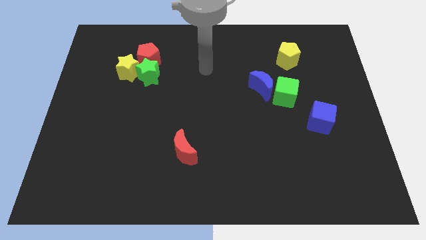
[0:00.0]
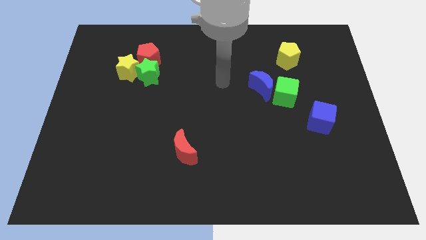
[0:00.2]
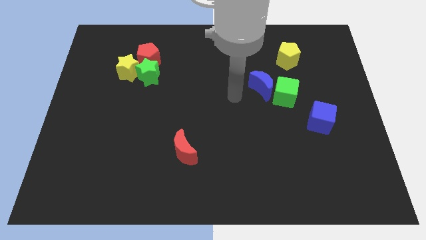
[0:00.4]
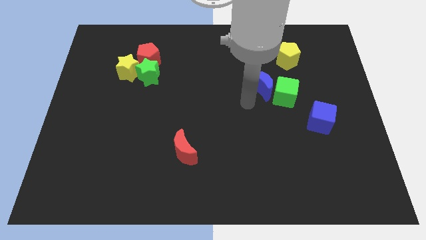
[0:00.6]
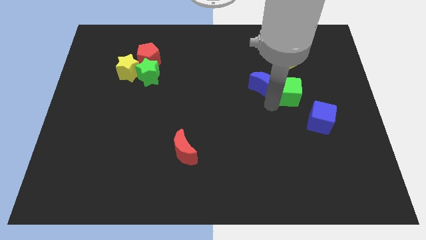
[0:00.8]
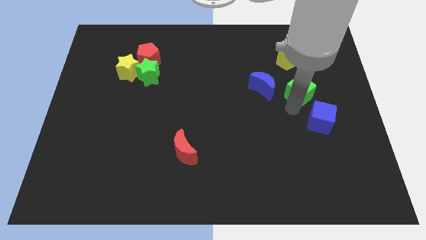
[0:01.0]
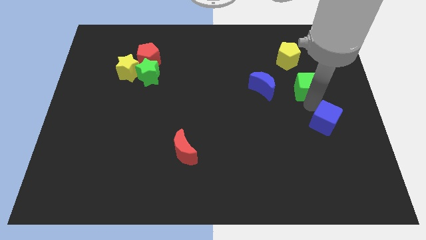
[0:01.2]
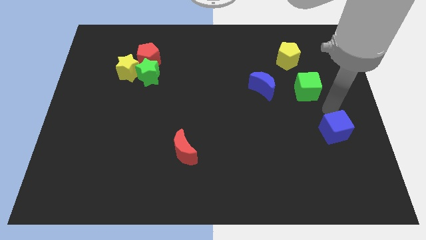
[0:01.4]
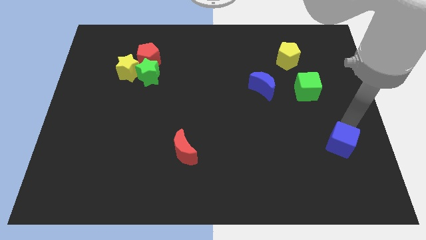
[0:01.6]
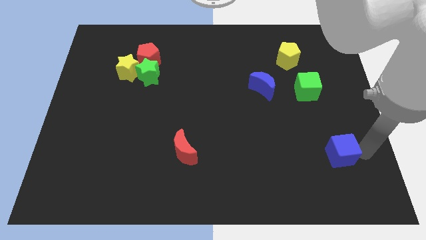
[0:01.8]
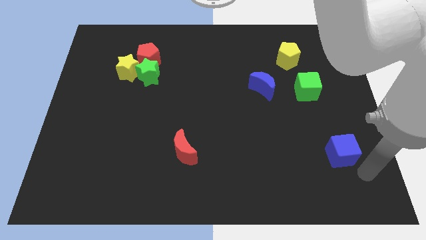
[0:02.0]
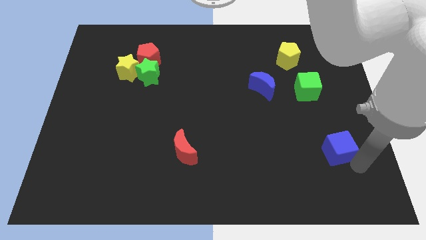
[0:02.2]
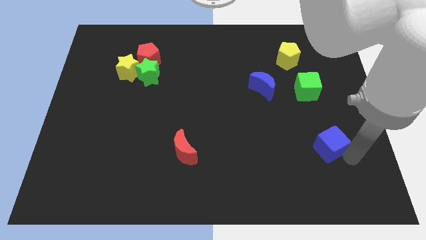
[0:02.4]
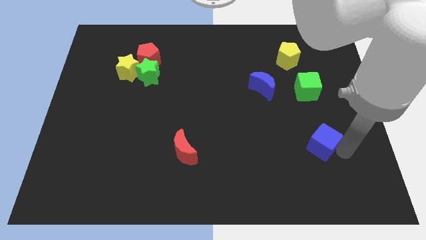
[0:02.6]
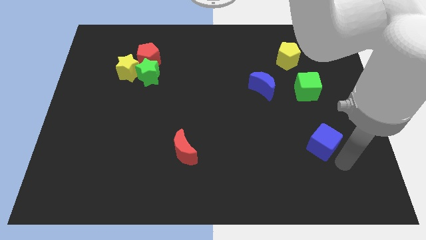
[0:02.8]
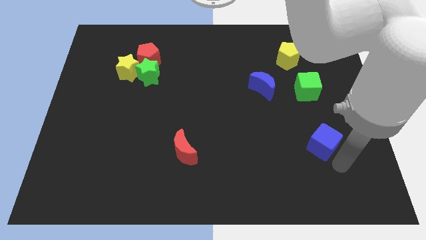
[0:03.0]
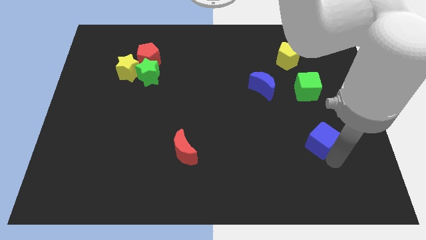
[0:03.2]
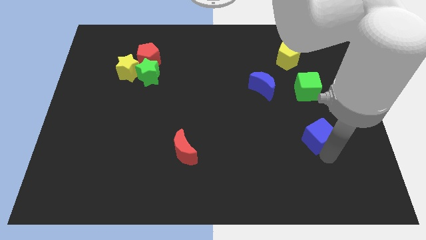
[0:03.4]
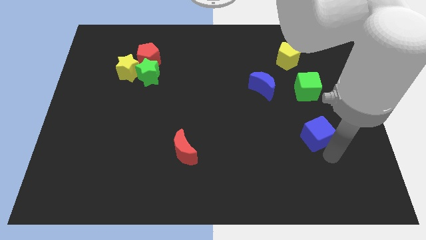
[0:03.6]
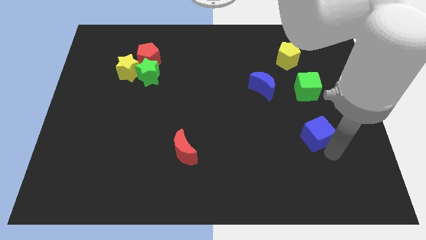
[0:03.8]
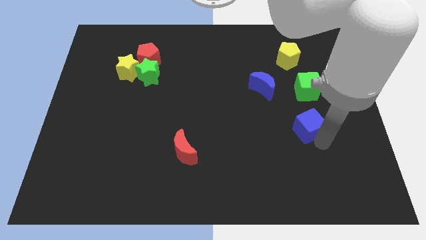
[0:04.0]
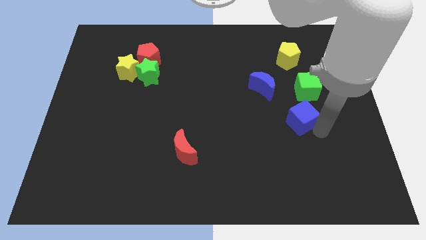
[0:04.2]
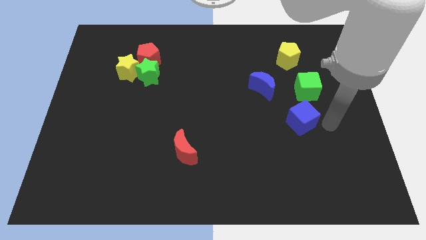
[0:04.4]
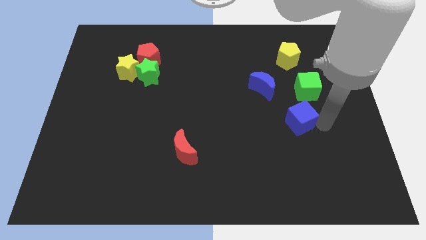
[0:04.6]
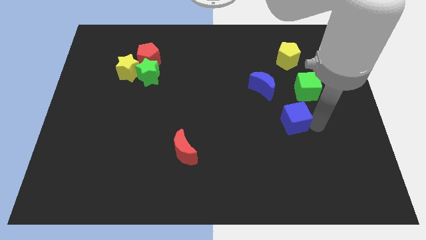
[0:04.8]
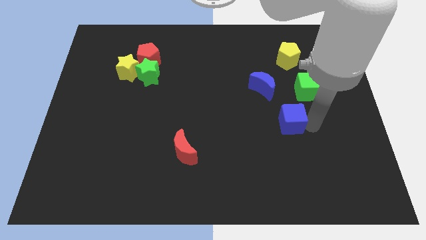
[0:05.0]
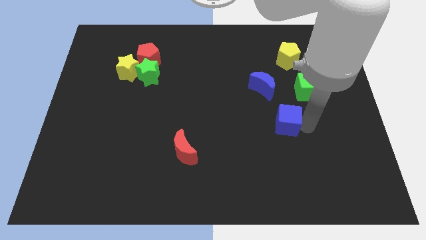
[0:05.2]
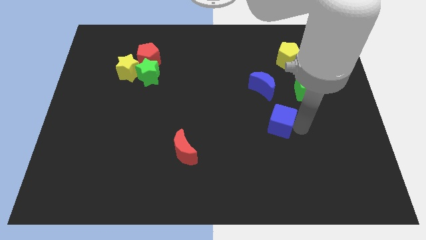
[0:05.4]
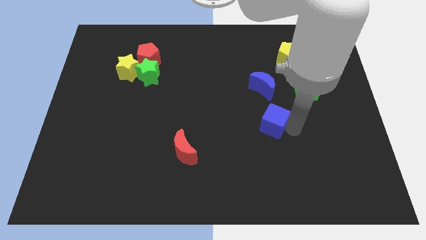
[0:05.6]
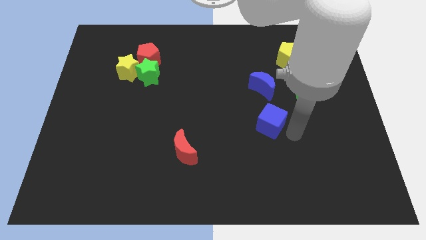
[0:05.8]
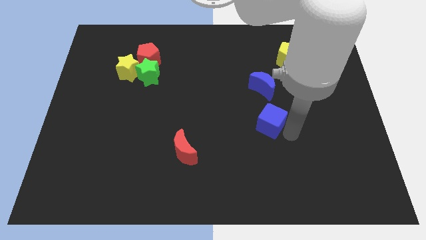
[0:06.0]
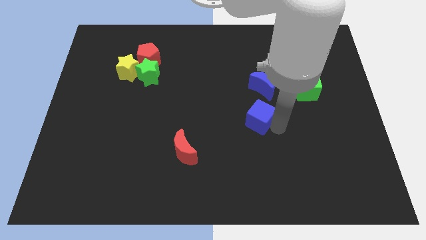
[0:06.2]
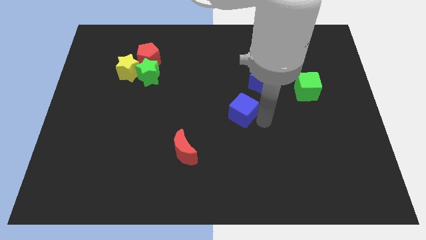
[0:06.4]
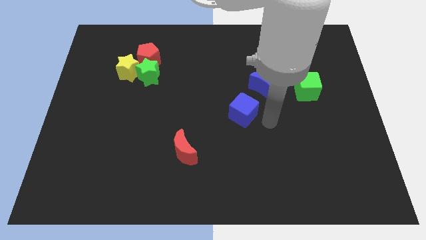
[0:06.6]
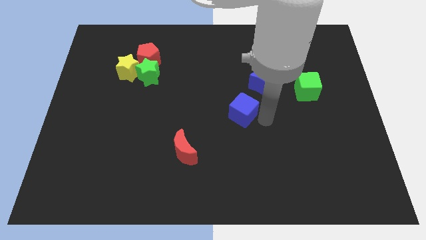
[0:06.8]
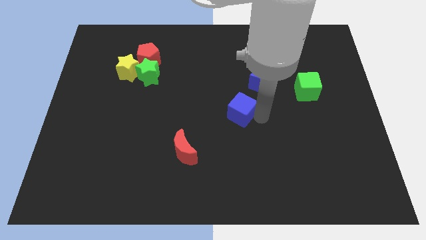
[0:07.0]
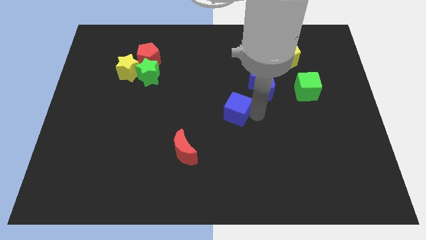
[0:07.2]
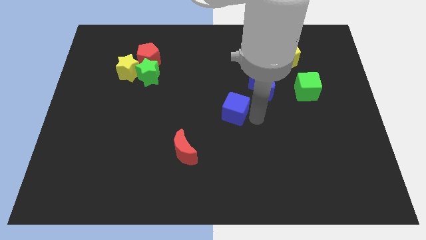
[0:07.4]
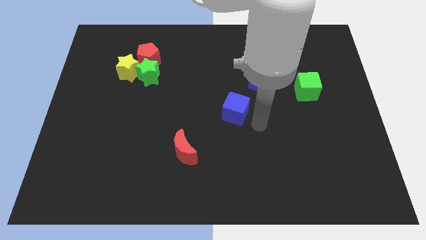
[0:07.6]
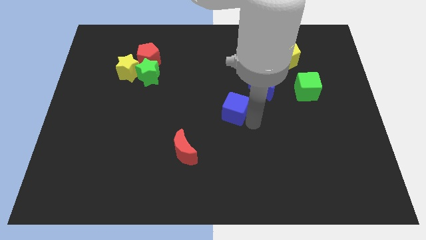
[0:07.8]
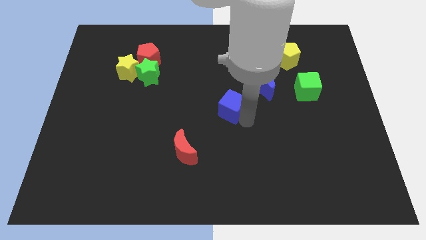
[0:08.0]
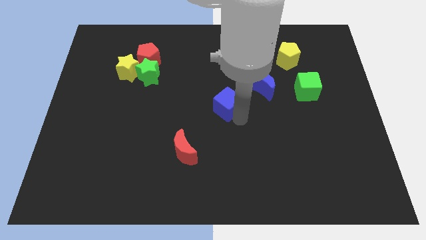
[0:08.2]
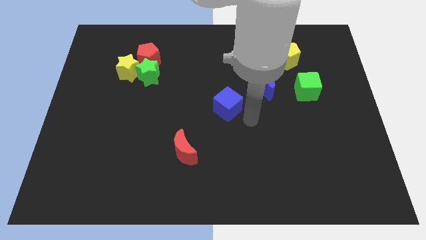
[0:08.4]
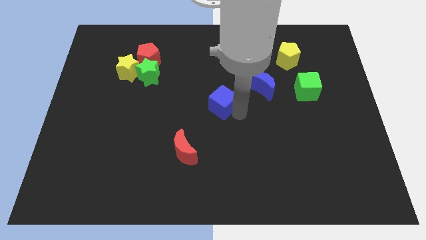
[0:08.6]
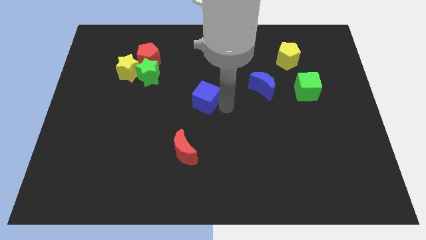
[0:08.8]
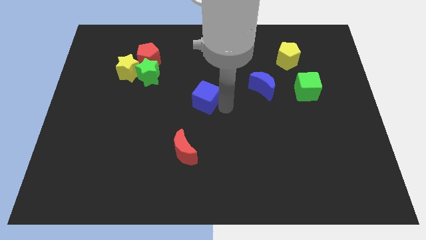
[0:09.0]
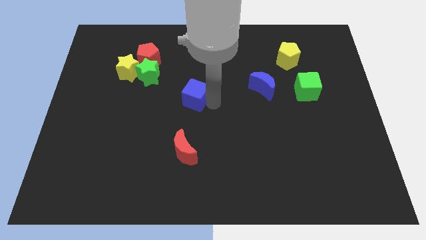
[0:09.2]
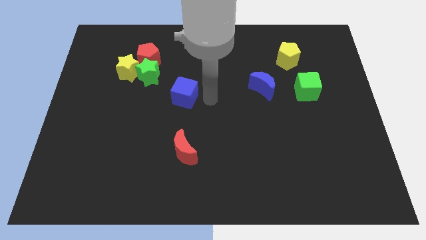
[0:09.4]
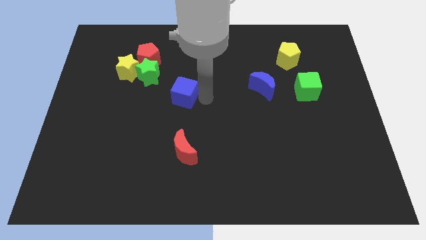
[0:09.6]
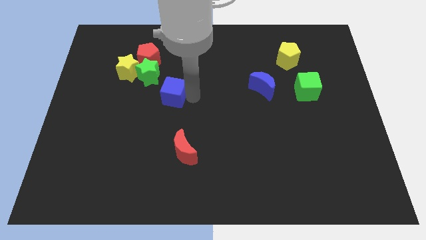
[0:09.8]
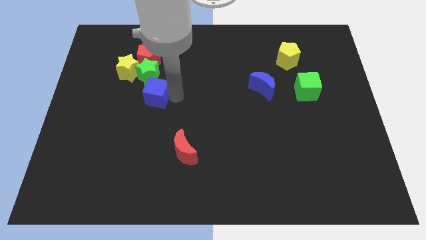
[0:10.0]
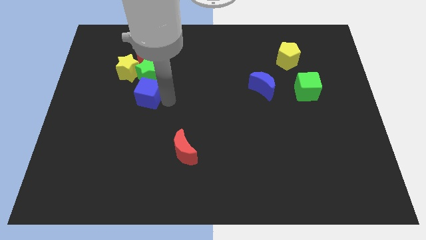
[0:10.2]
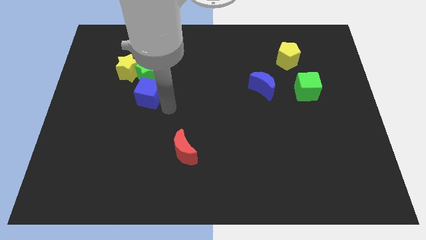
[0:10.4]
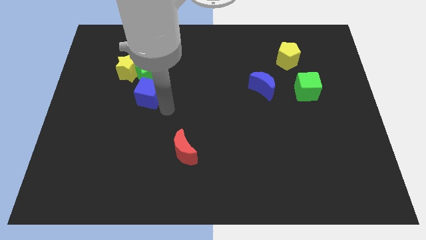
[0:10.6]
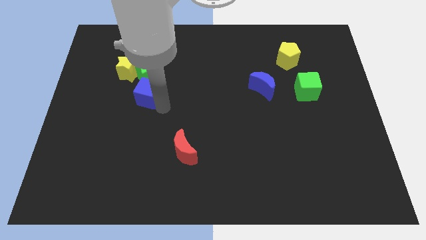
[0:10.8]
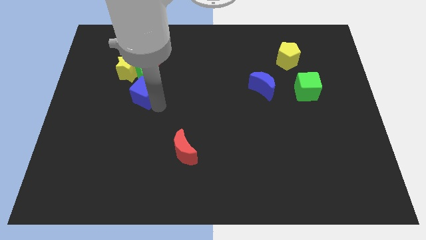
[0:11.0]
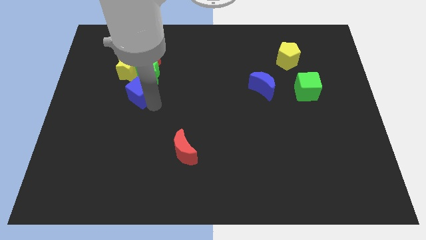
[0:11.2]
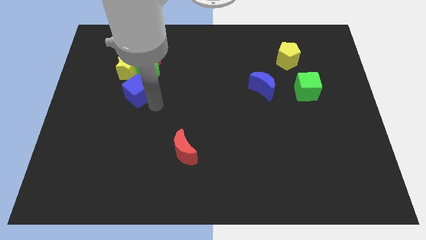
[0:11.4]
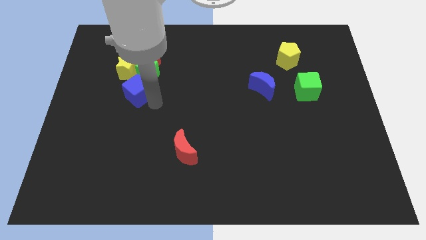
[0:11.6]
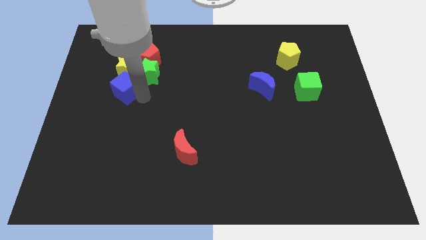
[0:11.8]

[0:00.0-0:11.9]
slide the blue cube close to the yellow star

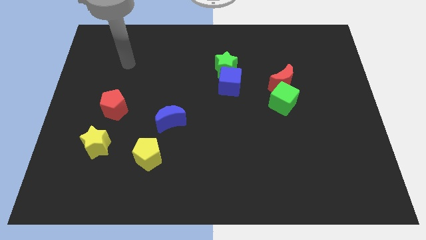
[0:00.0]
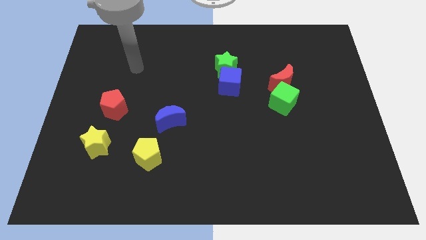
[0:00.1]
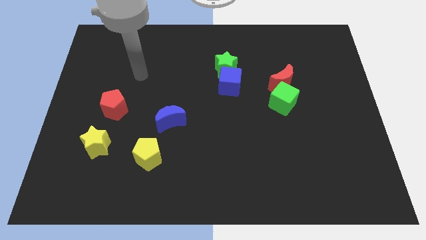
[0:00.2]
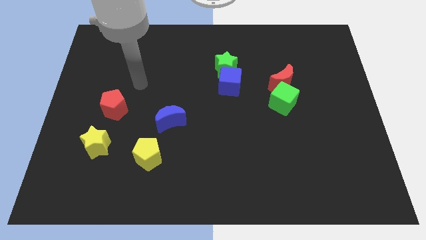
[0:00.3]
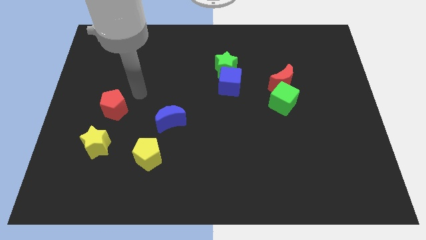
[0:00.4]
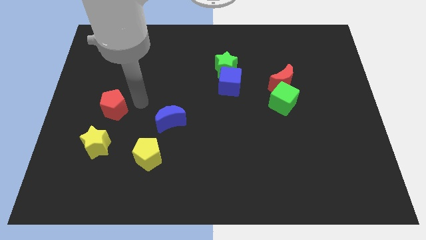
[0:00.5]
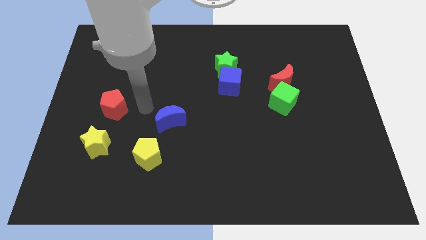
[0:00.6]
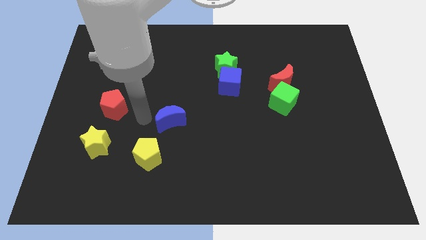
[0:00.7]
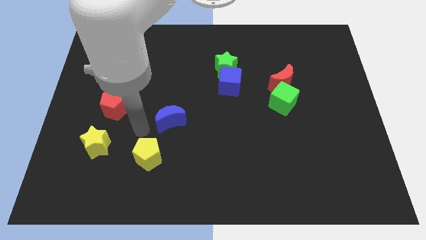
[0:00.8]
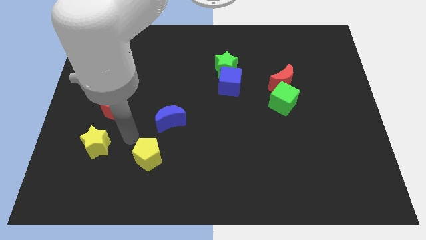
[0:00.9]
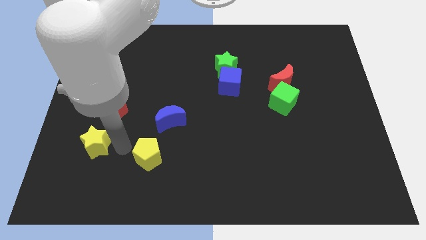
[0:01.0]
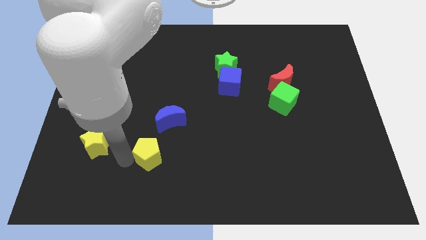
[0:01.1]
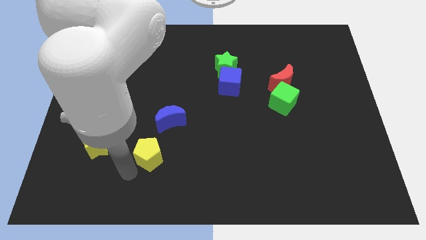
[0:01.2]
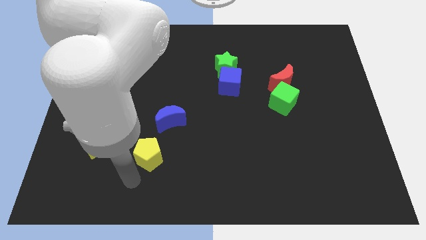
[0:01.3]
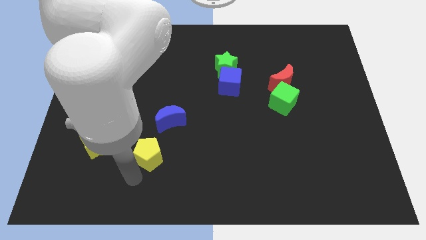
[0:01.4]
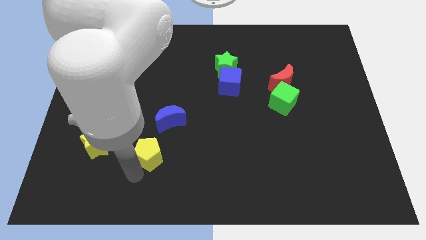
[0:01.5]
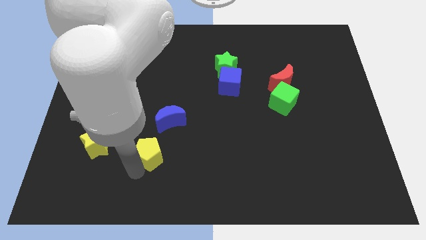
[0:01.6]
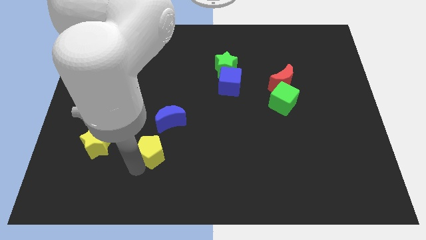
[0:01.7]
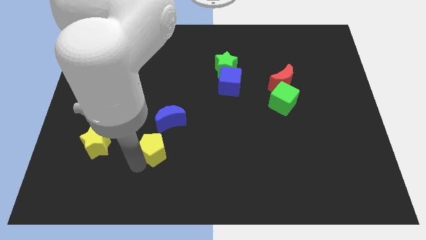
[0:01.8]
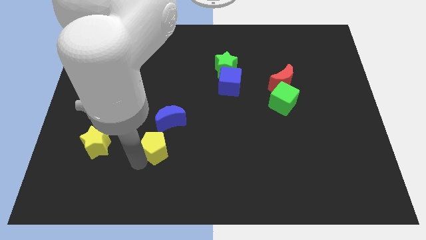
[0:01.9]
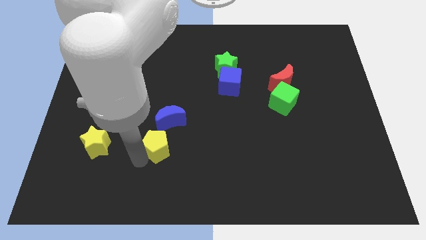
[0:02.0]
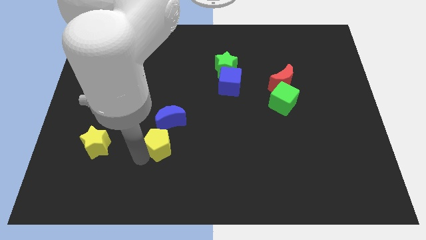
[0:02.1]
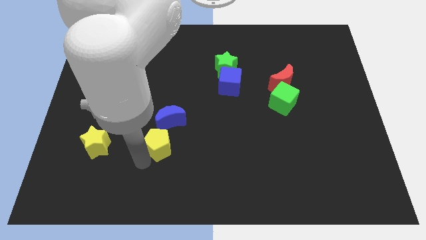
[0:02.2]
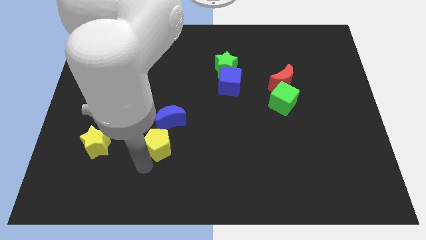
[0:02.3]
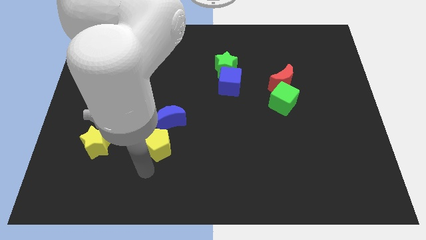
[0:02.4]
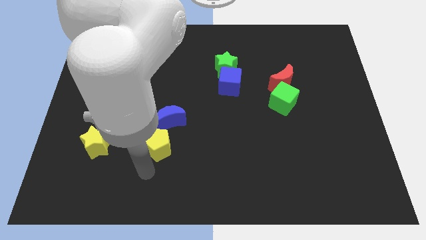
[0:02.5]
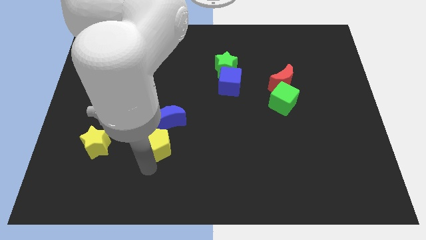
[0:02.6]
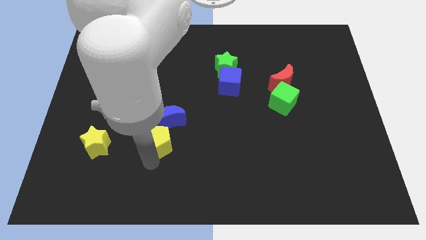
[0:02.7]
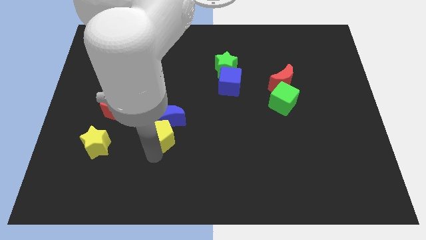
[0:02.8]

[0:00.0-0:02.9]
put the yellow pentagon to the blue moon
